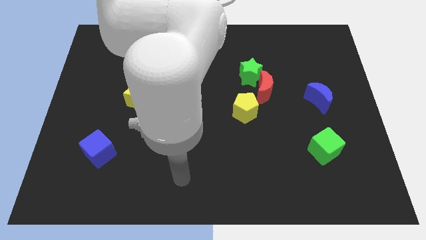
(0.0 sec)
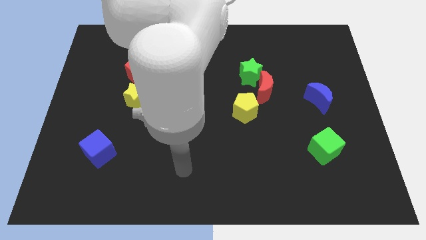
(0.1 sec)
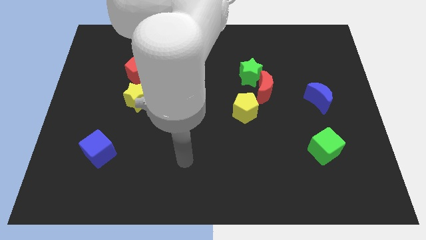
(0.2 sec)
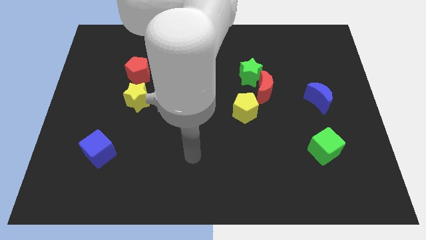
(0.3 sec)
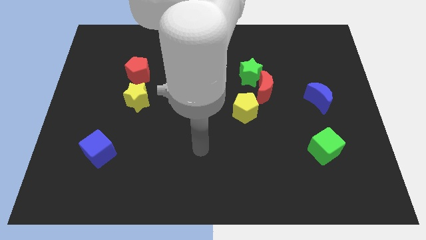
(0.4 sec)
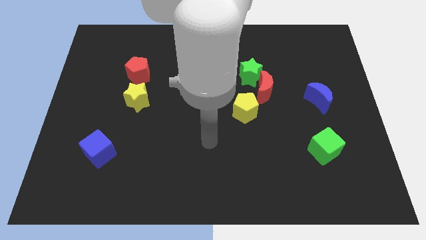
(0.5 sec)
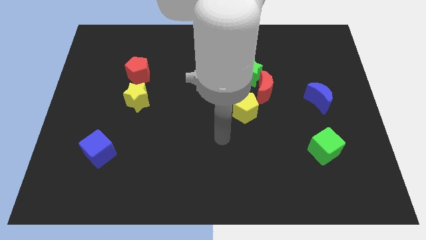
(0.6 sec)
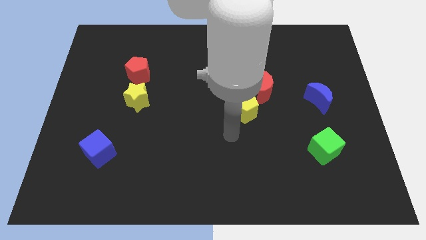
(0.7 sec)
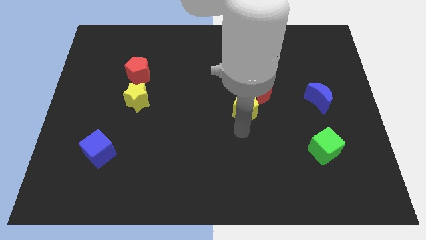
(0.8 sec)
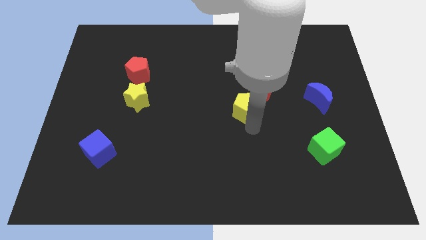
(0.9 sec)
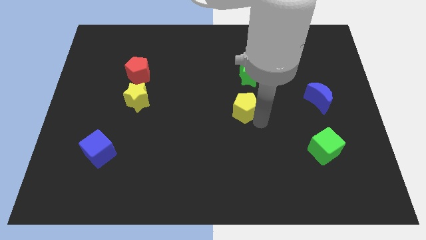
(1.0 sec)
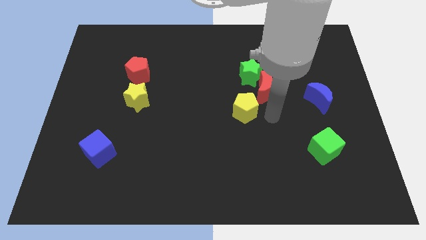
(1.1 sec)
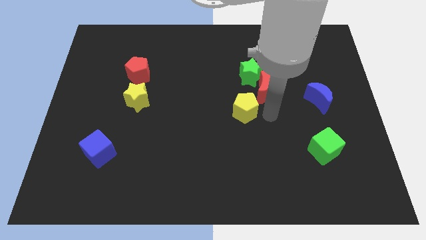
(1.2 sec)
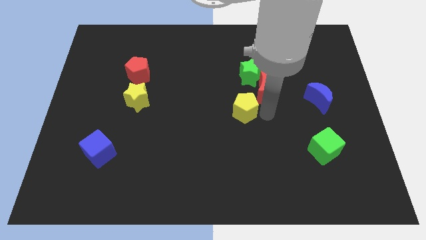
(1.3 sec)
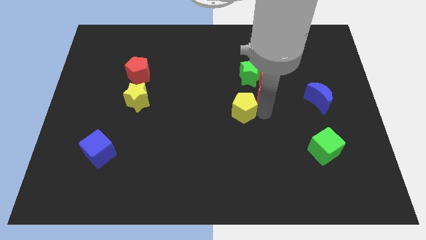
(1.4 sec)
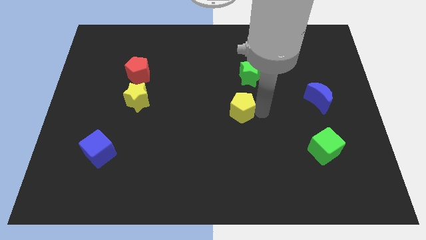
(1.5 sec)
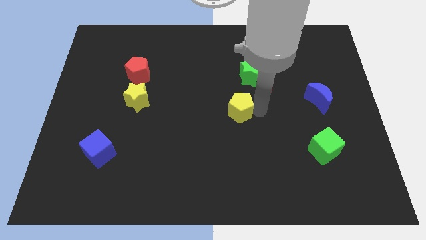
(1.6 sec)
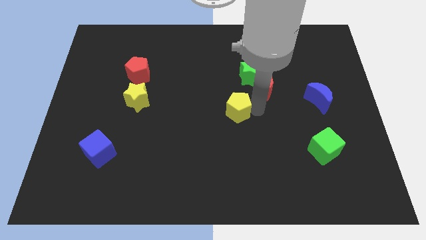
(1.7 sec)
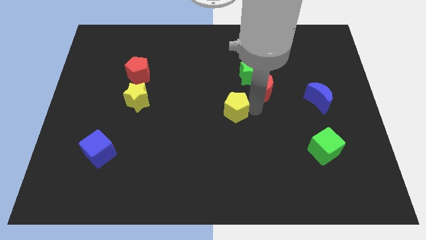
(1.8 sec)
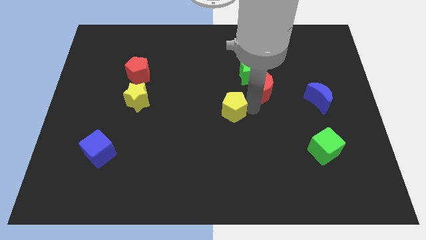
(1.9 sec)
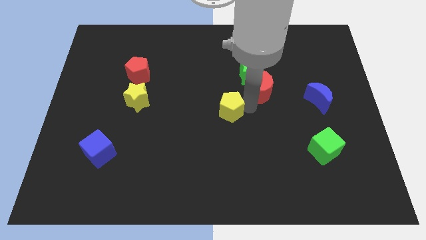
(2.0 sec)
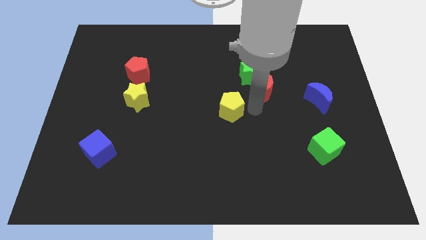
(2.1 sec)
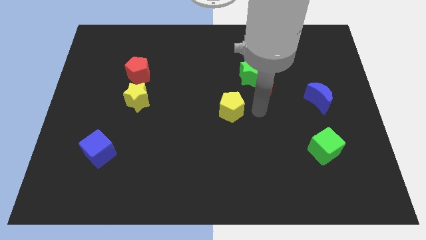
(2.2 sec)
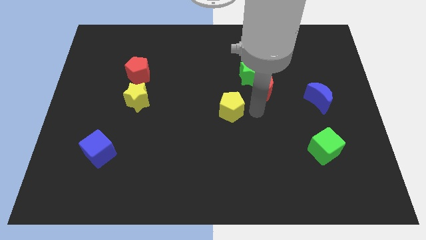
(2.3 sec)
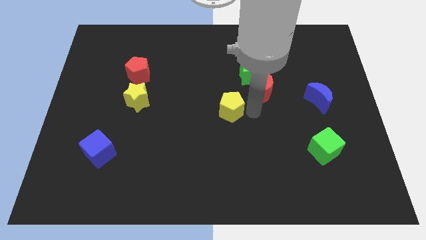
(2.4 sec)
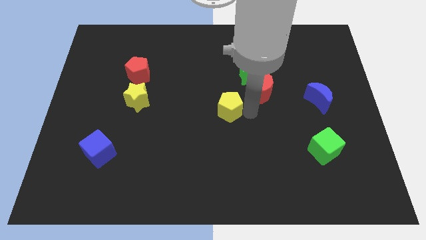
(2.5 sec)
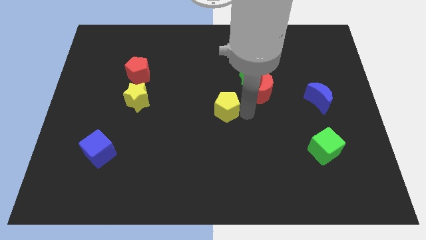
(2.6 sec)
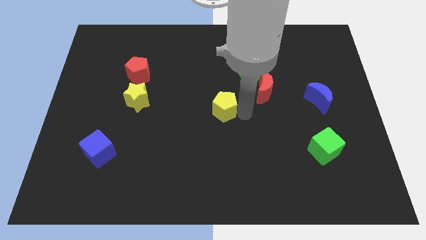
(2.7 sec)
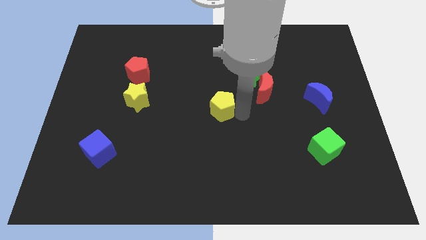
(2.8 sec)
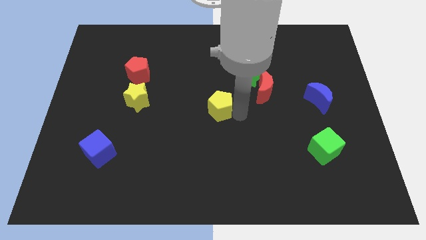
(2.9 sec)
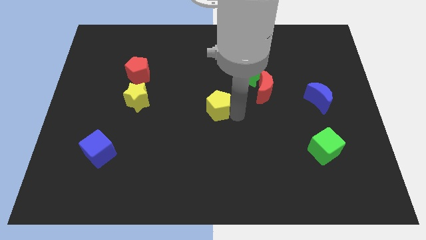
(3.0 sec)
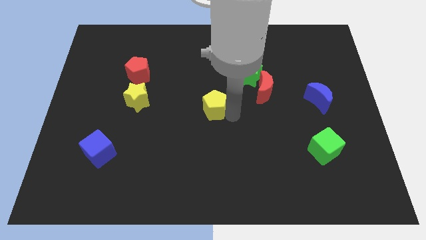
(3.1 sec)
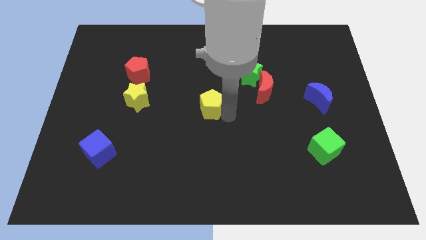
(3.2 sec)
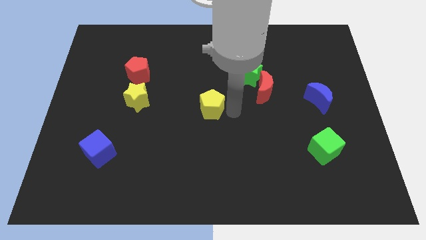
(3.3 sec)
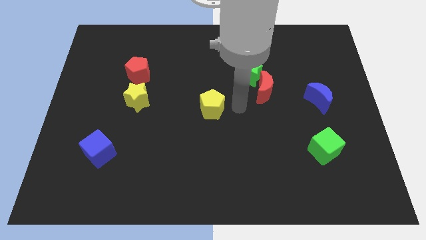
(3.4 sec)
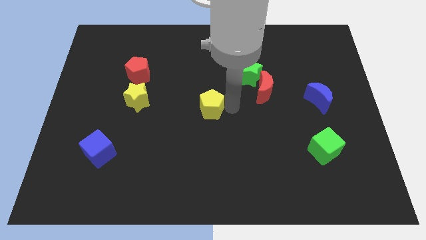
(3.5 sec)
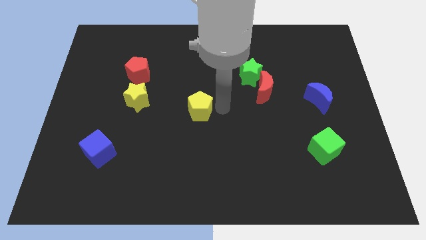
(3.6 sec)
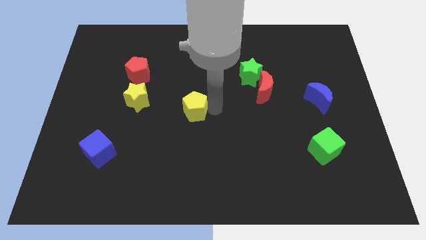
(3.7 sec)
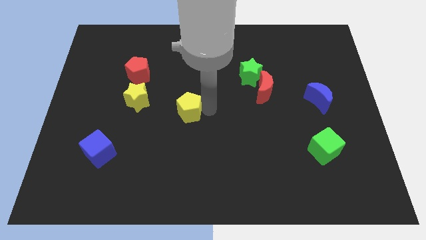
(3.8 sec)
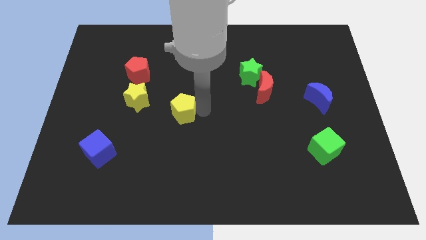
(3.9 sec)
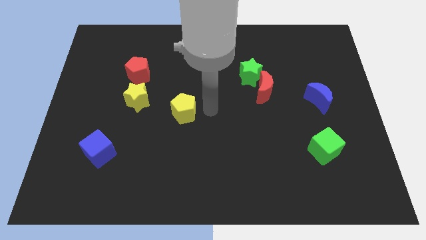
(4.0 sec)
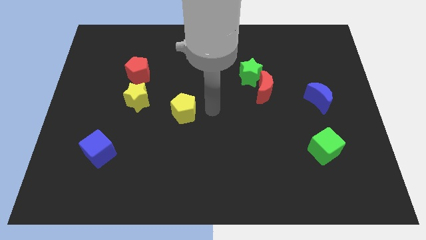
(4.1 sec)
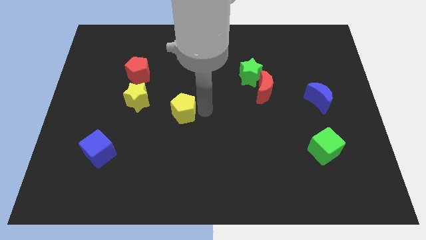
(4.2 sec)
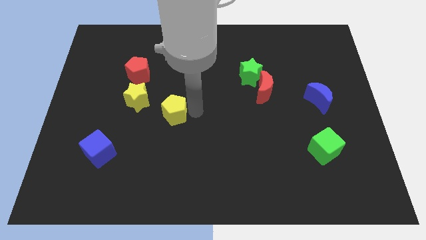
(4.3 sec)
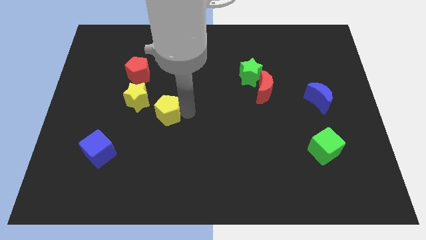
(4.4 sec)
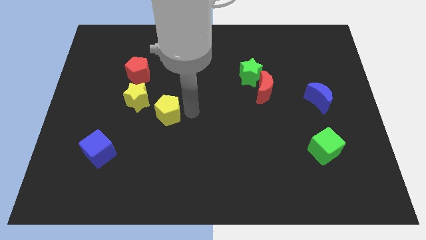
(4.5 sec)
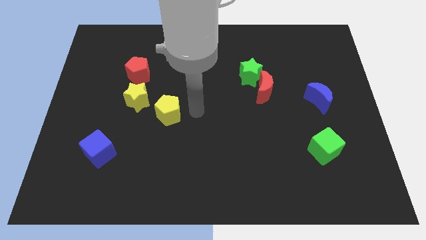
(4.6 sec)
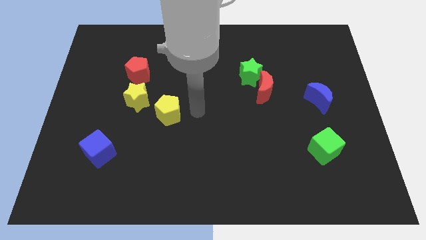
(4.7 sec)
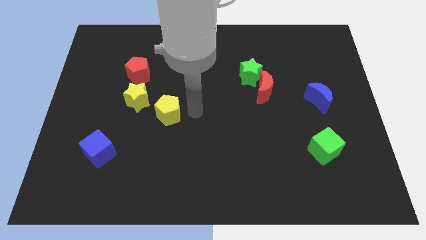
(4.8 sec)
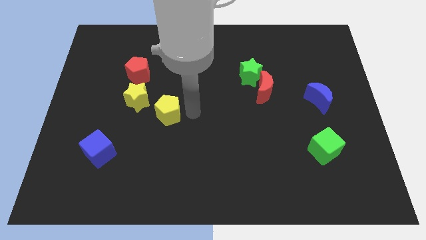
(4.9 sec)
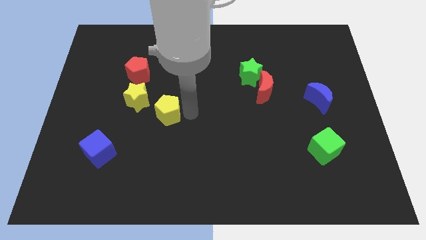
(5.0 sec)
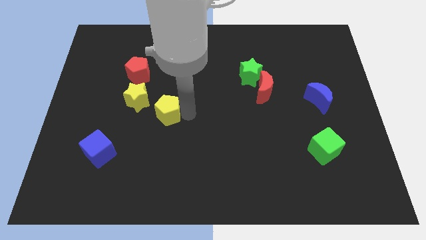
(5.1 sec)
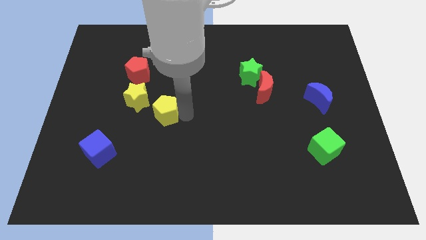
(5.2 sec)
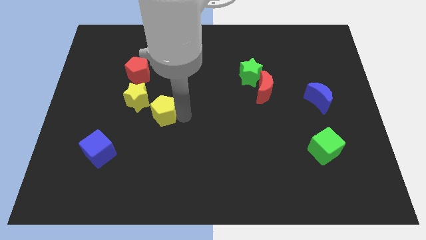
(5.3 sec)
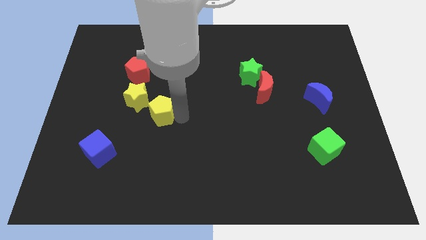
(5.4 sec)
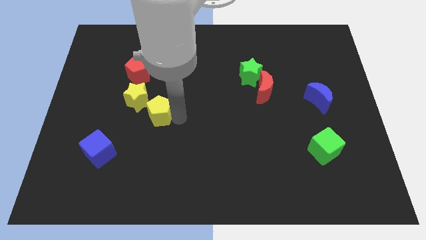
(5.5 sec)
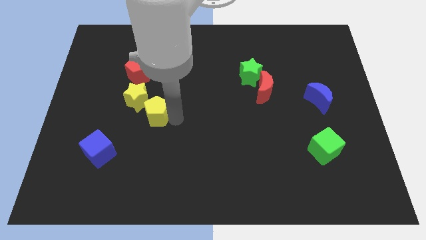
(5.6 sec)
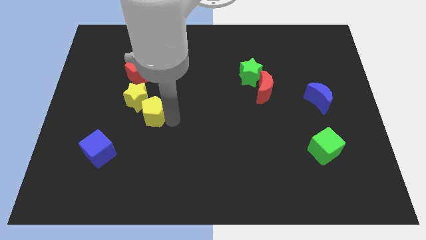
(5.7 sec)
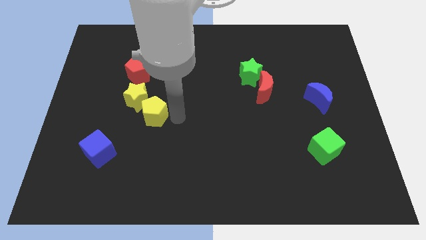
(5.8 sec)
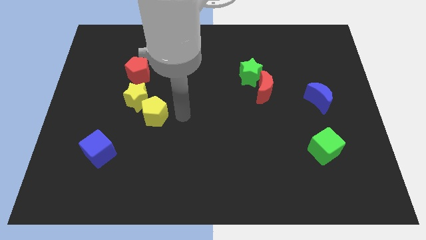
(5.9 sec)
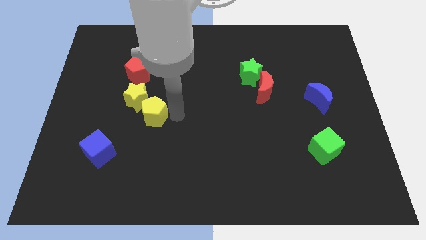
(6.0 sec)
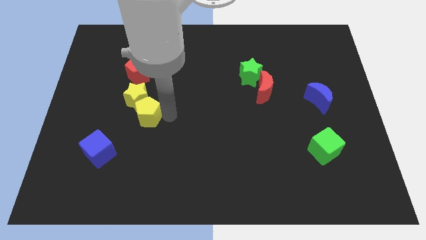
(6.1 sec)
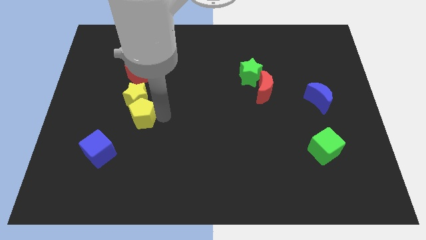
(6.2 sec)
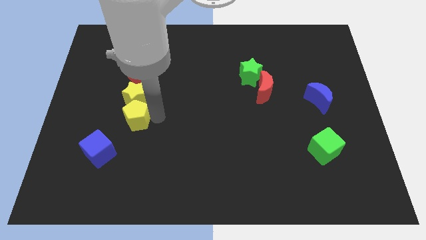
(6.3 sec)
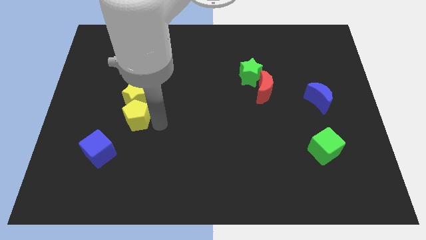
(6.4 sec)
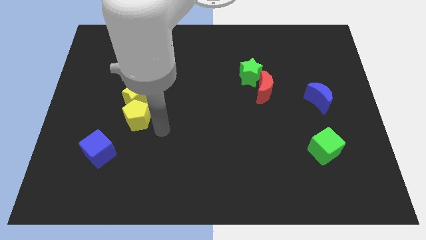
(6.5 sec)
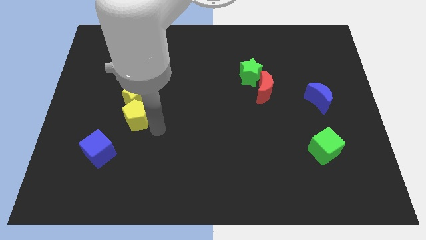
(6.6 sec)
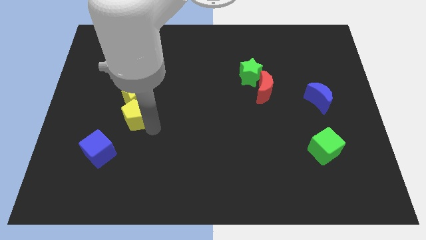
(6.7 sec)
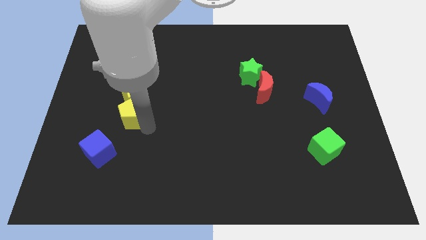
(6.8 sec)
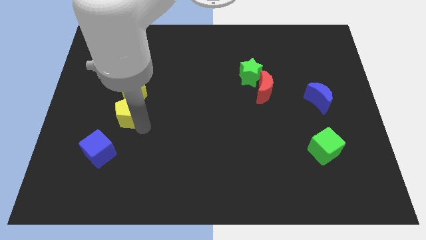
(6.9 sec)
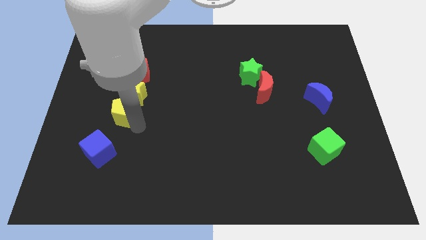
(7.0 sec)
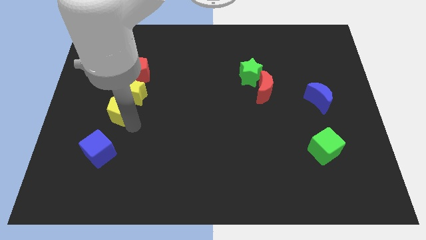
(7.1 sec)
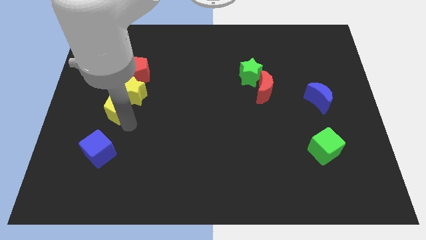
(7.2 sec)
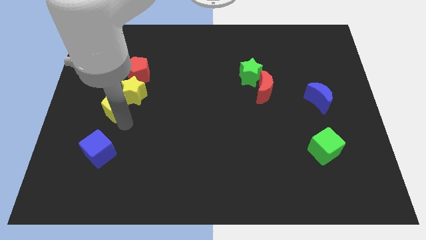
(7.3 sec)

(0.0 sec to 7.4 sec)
push the yellow pentagon to the left side of the yellow star
